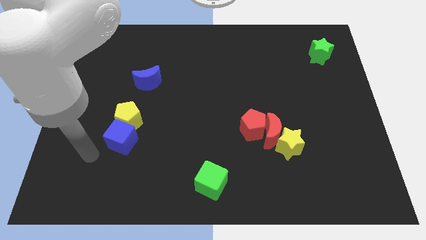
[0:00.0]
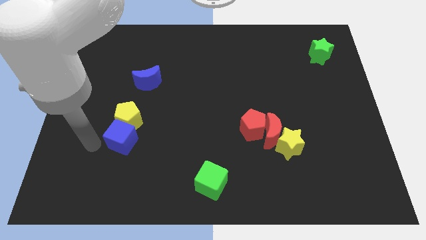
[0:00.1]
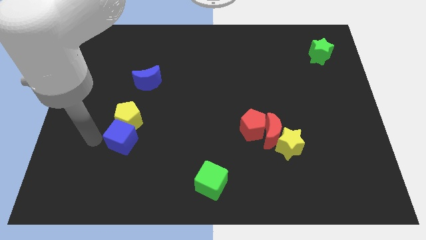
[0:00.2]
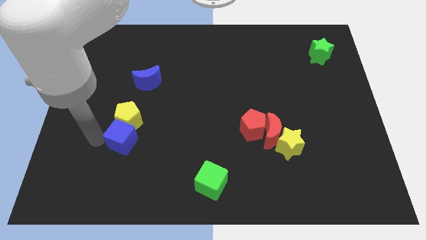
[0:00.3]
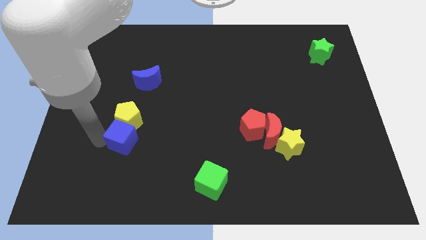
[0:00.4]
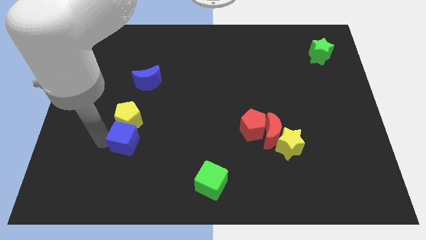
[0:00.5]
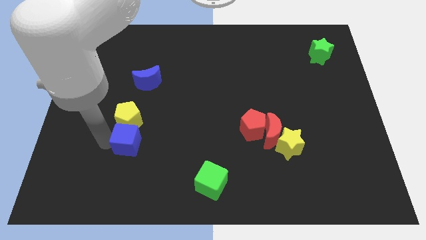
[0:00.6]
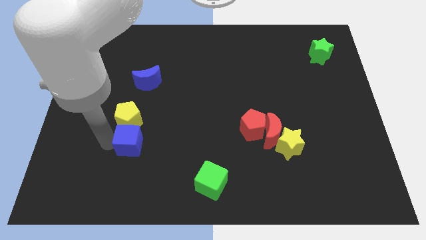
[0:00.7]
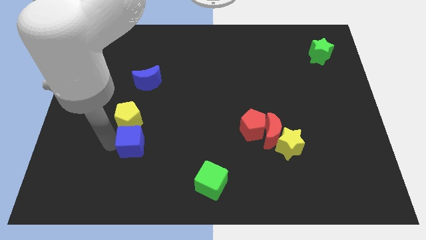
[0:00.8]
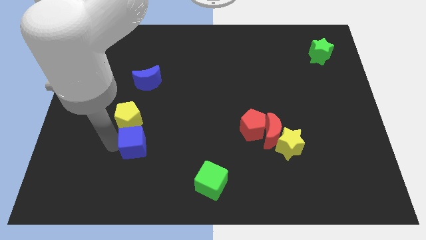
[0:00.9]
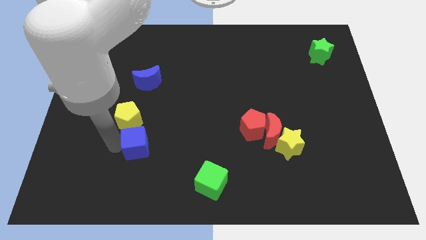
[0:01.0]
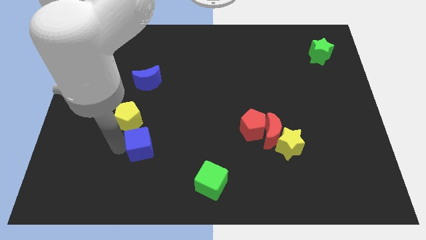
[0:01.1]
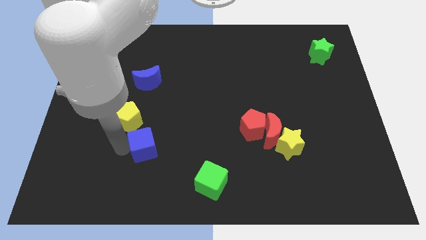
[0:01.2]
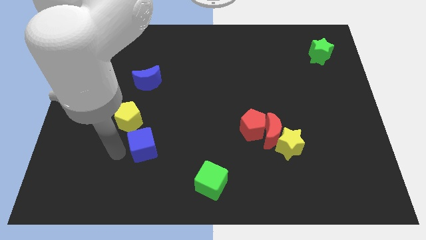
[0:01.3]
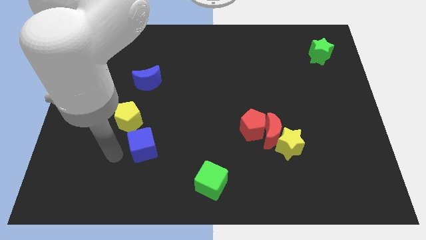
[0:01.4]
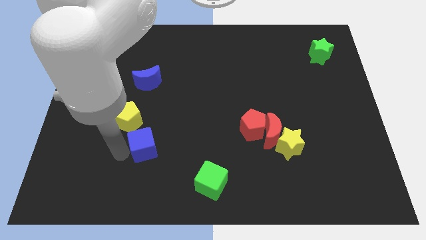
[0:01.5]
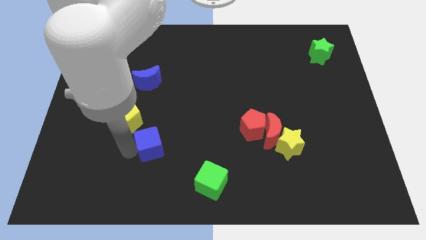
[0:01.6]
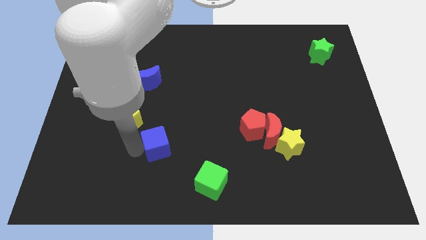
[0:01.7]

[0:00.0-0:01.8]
push the blue cube slightly right

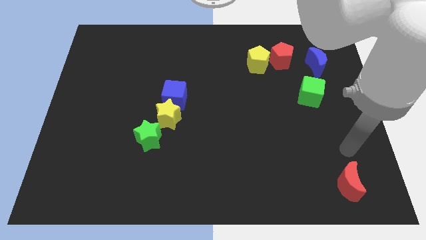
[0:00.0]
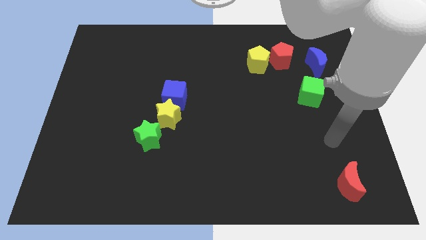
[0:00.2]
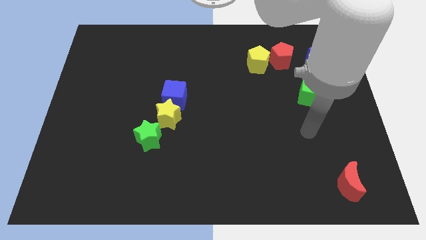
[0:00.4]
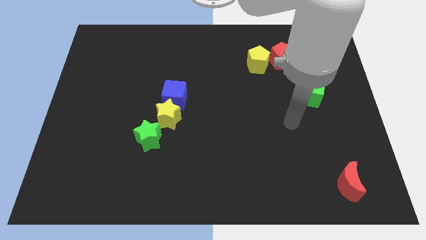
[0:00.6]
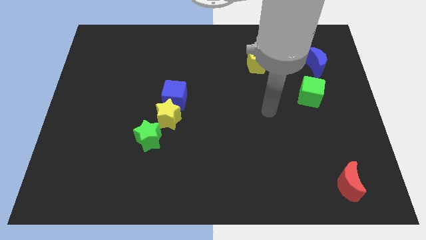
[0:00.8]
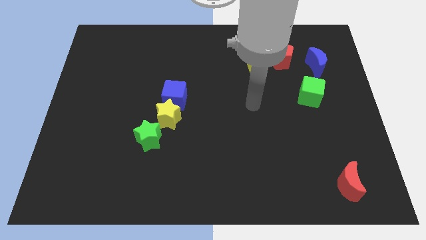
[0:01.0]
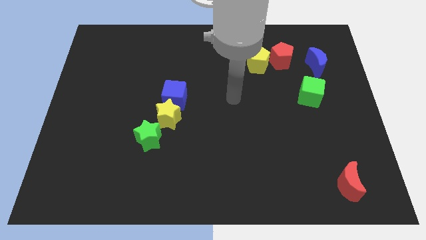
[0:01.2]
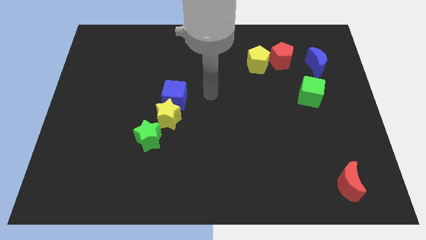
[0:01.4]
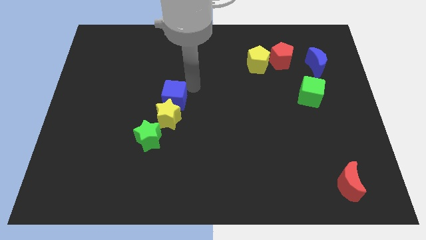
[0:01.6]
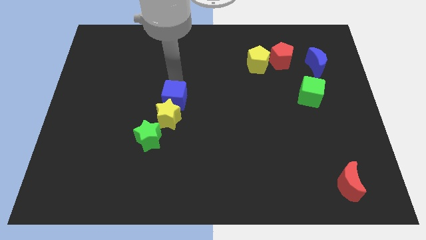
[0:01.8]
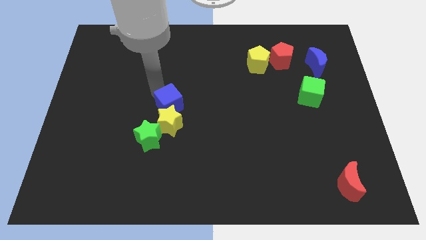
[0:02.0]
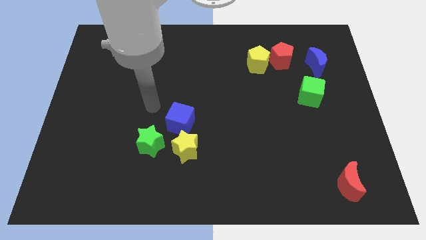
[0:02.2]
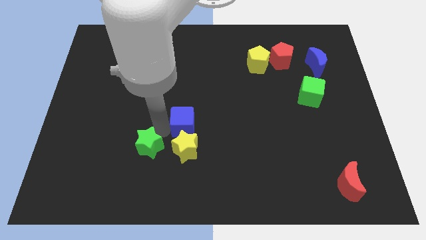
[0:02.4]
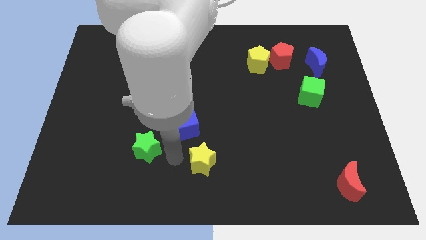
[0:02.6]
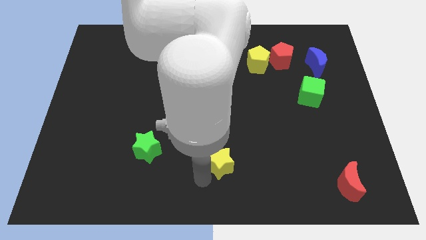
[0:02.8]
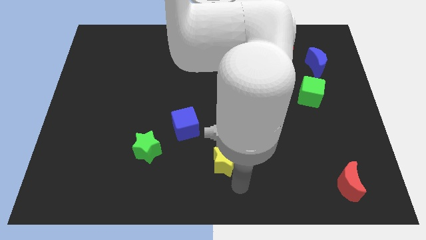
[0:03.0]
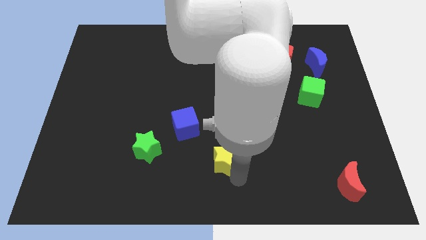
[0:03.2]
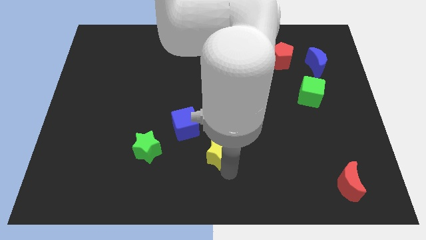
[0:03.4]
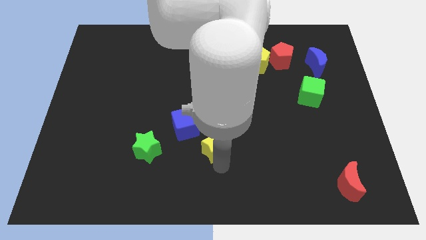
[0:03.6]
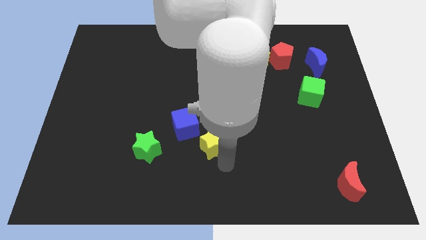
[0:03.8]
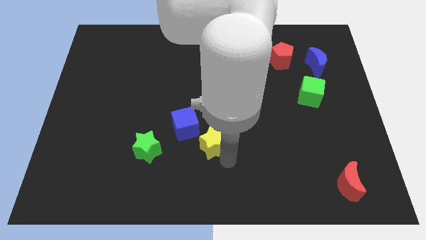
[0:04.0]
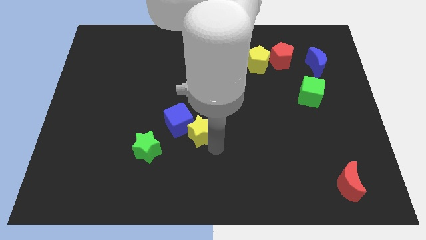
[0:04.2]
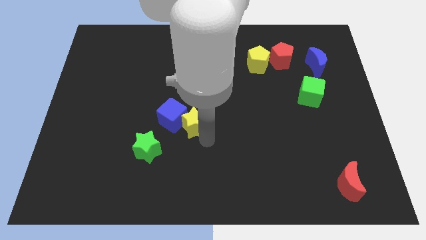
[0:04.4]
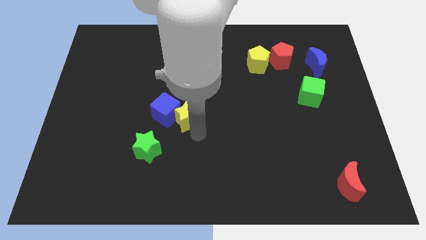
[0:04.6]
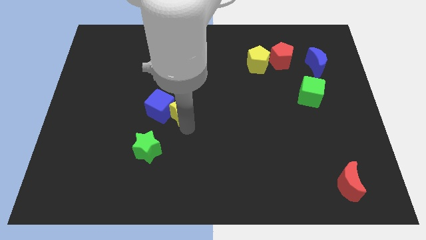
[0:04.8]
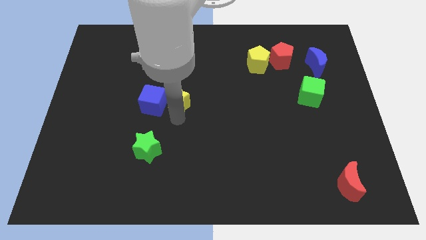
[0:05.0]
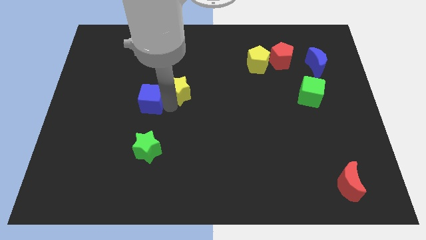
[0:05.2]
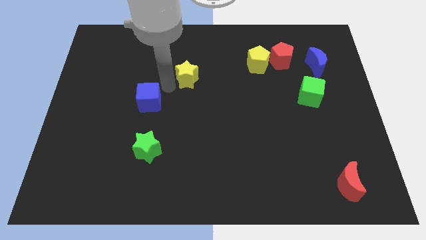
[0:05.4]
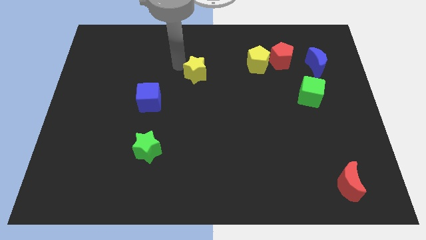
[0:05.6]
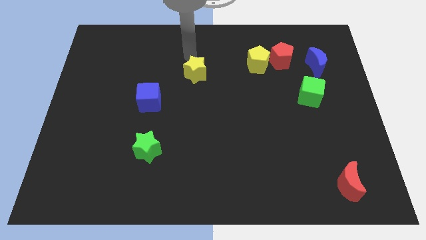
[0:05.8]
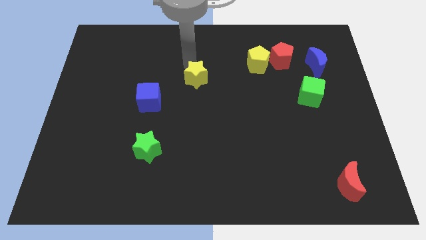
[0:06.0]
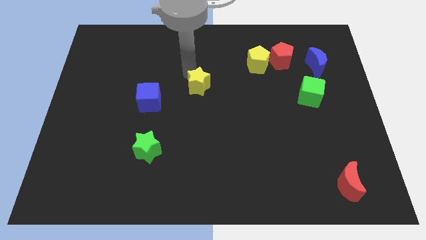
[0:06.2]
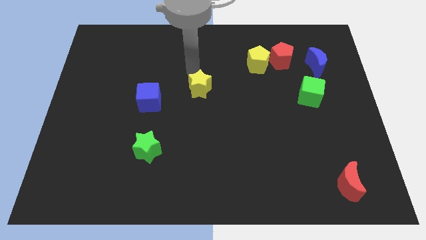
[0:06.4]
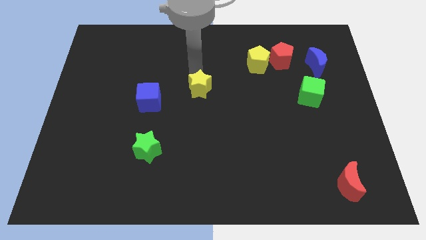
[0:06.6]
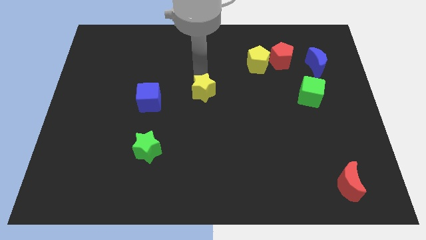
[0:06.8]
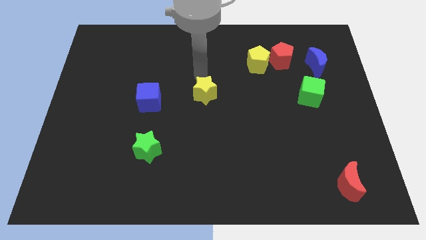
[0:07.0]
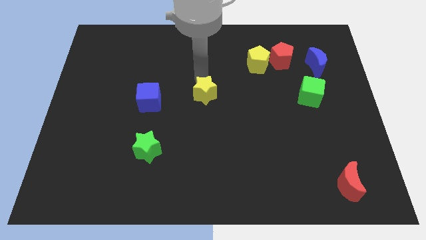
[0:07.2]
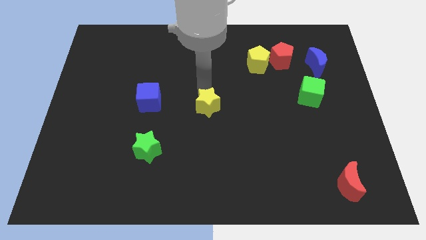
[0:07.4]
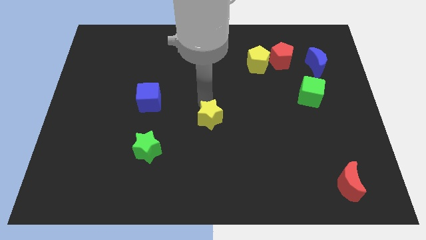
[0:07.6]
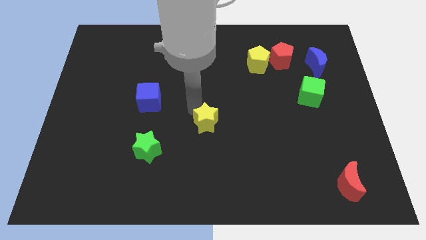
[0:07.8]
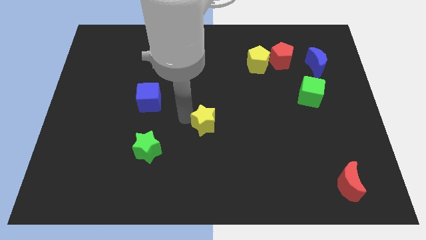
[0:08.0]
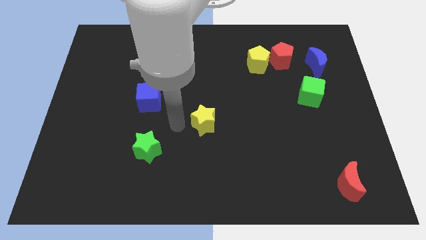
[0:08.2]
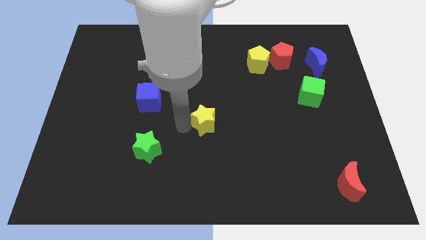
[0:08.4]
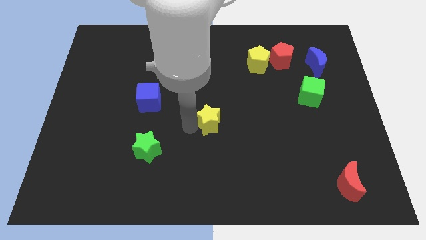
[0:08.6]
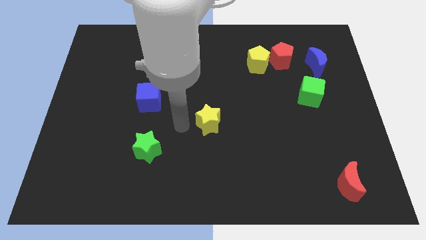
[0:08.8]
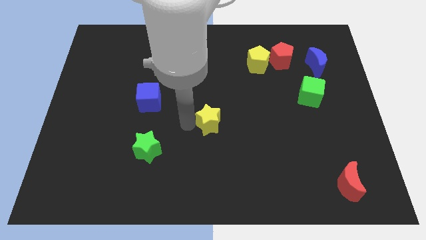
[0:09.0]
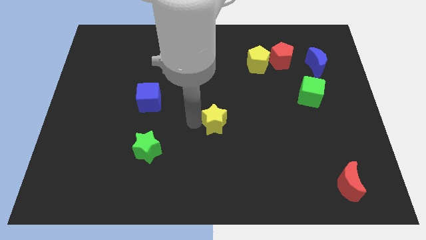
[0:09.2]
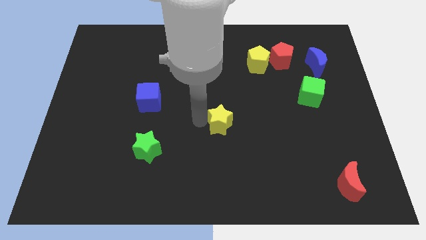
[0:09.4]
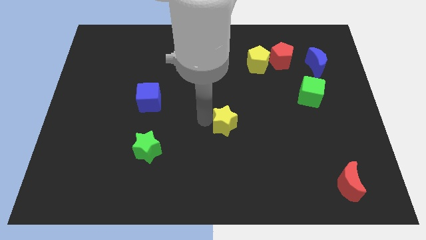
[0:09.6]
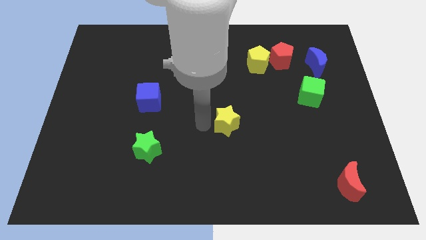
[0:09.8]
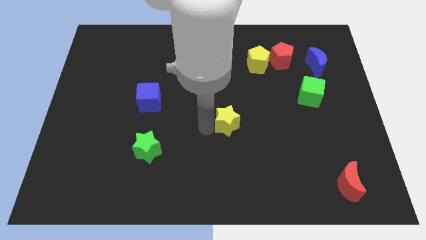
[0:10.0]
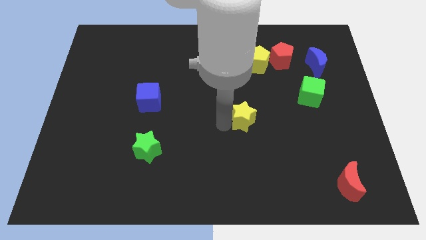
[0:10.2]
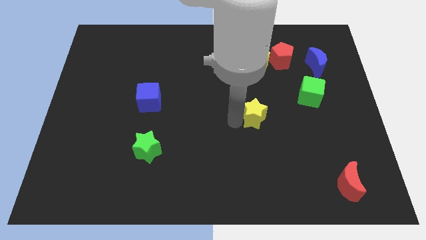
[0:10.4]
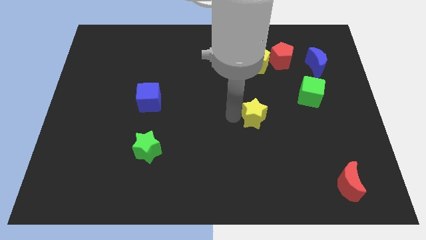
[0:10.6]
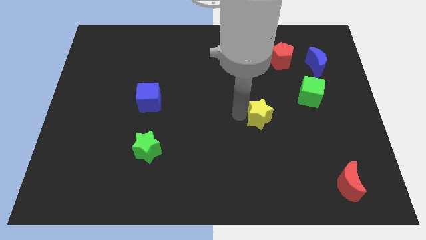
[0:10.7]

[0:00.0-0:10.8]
move the yellow star right

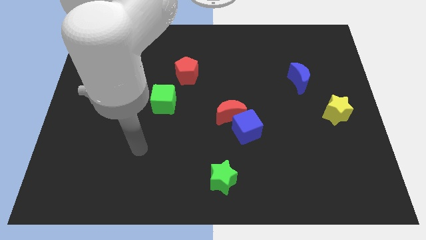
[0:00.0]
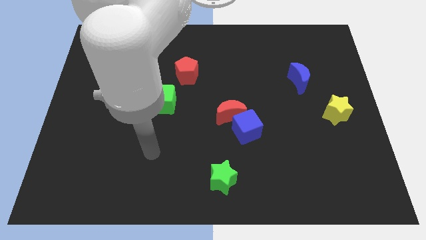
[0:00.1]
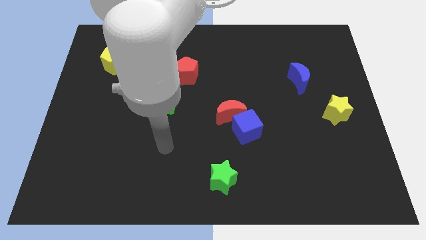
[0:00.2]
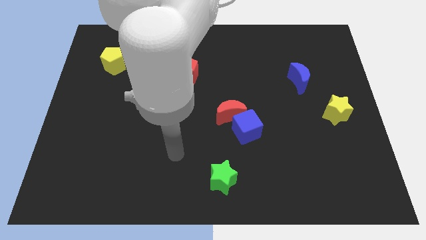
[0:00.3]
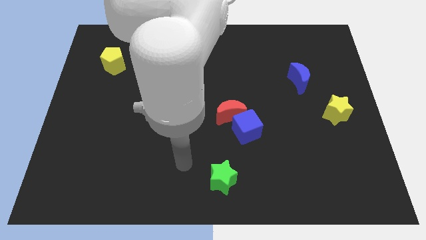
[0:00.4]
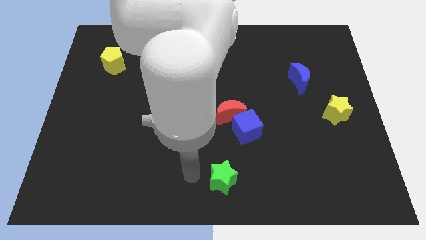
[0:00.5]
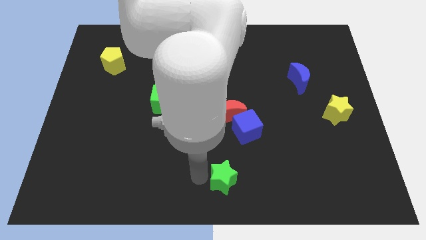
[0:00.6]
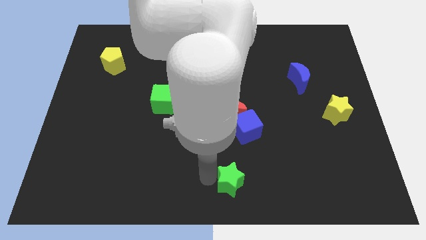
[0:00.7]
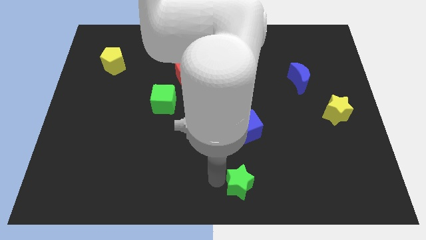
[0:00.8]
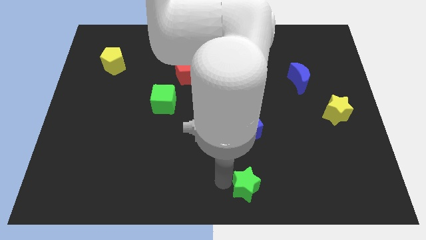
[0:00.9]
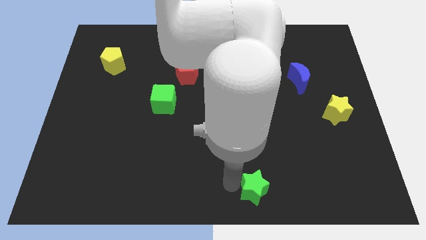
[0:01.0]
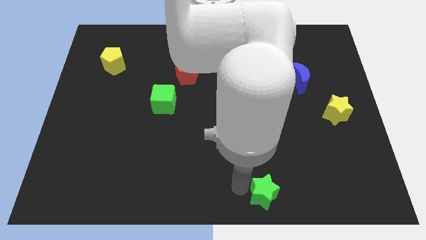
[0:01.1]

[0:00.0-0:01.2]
slightly slide the green star to the right
